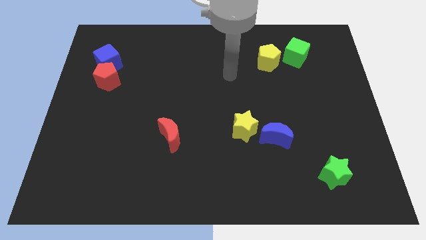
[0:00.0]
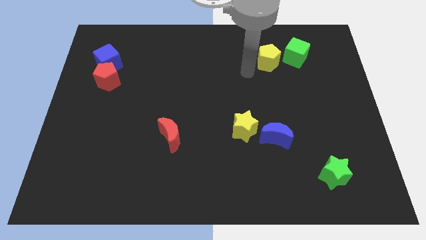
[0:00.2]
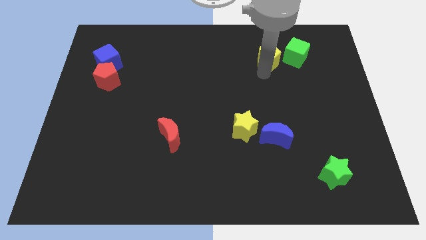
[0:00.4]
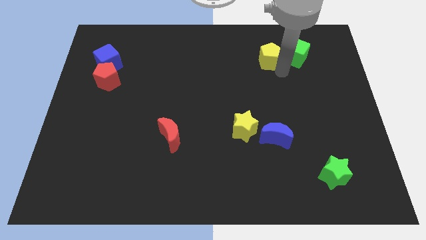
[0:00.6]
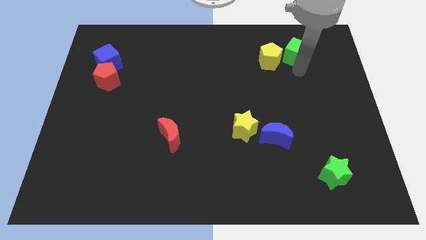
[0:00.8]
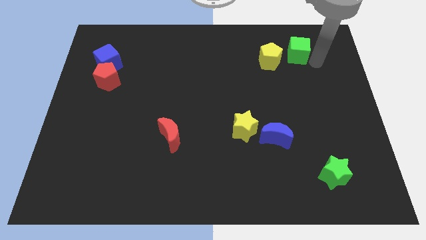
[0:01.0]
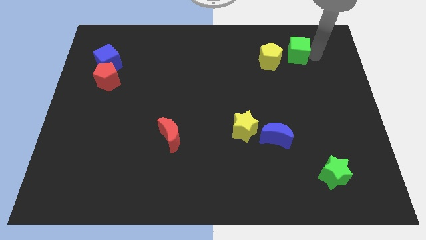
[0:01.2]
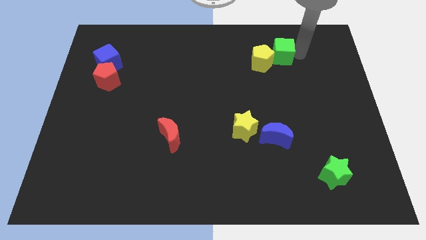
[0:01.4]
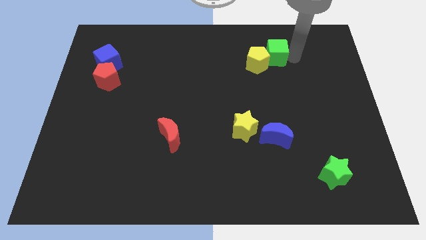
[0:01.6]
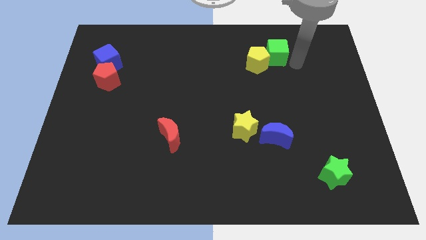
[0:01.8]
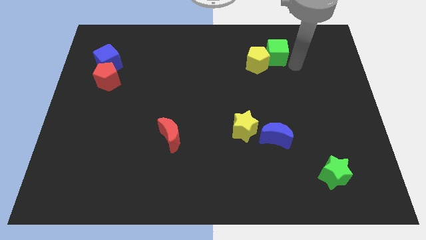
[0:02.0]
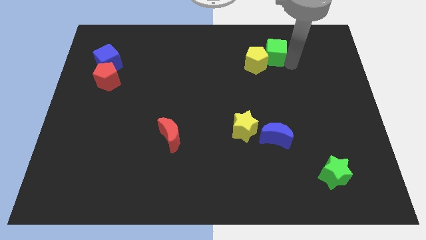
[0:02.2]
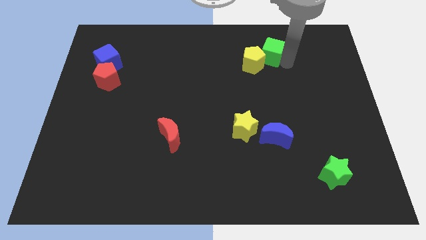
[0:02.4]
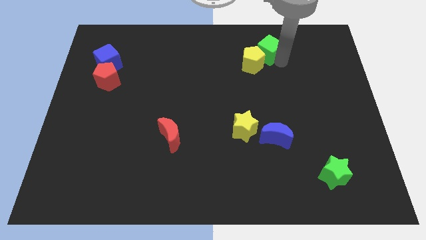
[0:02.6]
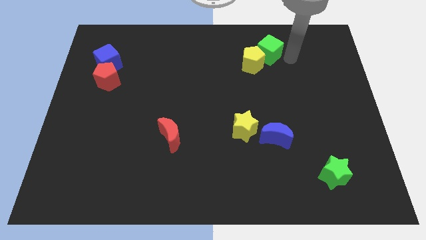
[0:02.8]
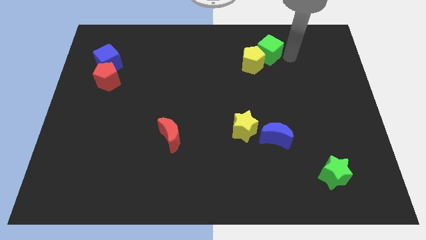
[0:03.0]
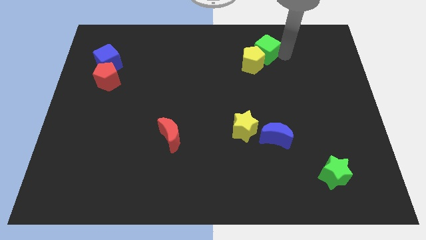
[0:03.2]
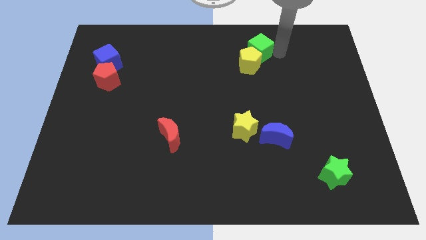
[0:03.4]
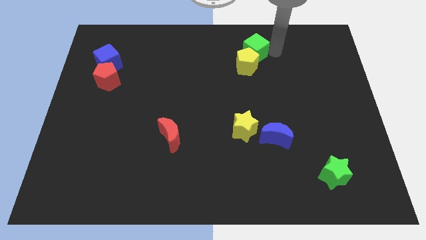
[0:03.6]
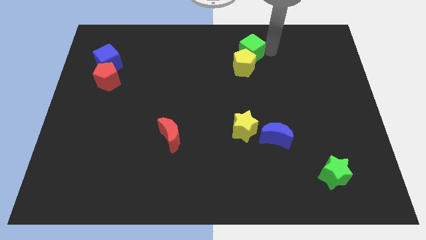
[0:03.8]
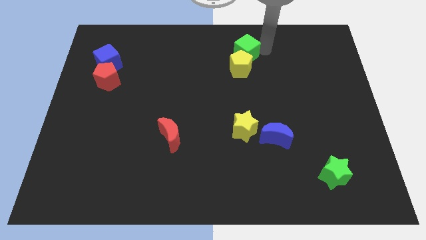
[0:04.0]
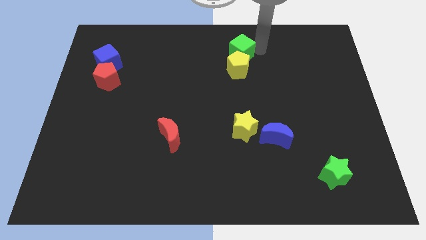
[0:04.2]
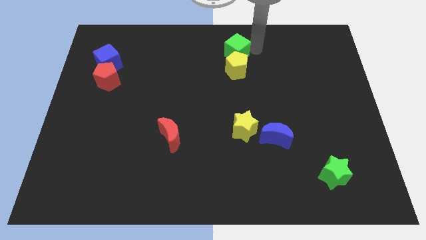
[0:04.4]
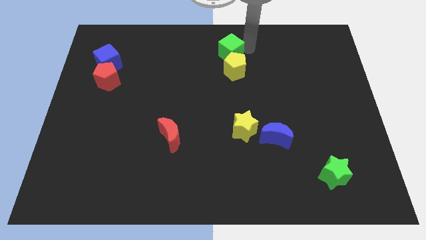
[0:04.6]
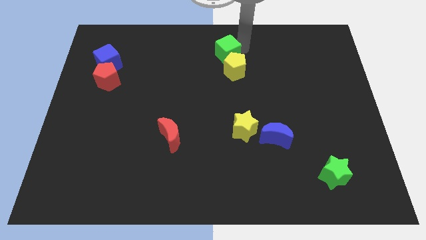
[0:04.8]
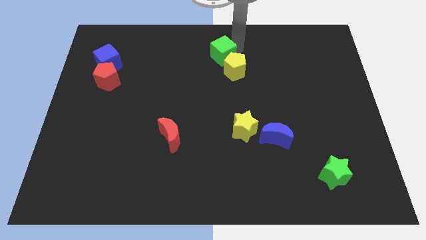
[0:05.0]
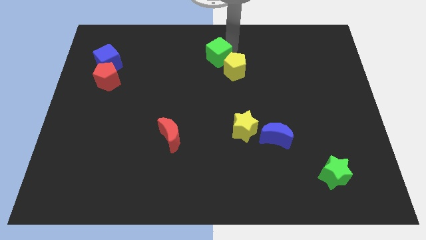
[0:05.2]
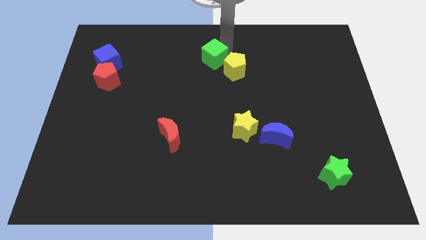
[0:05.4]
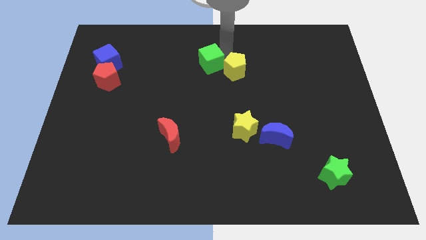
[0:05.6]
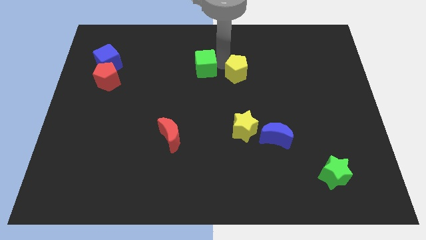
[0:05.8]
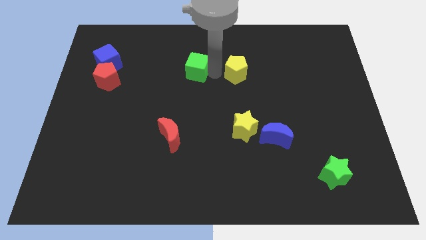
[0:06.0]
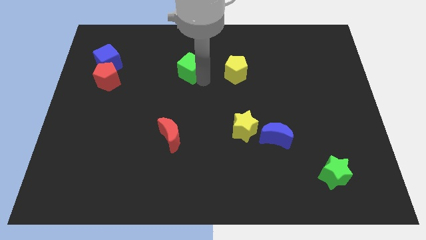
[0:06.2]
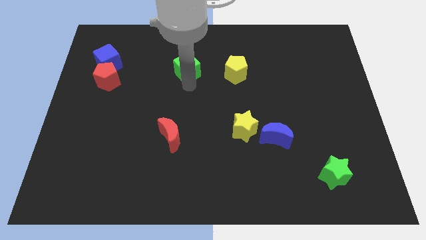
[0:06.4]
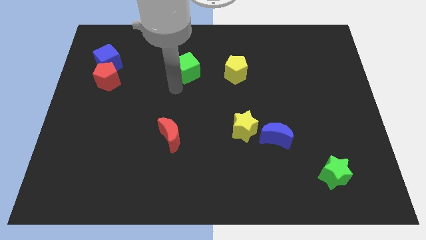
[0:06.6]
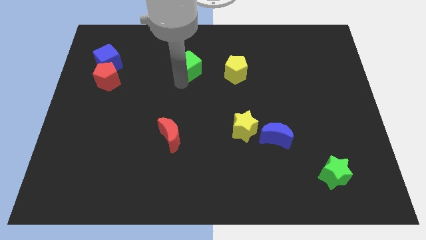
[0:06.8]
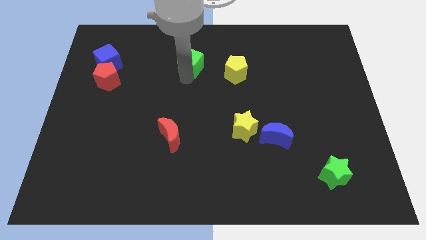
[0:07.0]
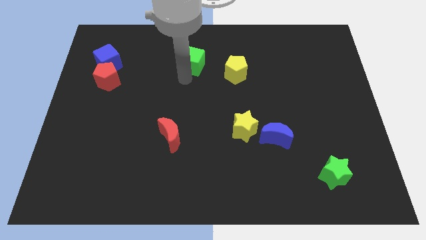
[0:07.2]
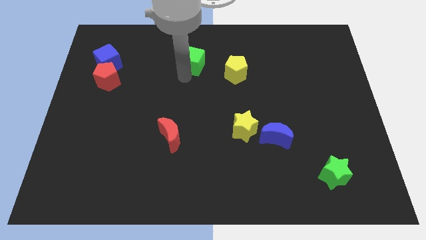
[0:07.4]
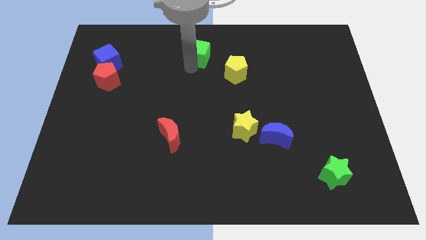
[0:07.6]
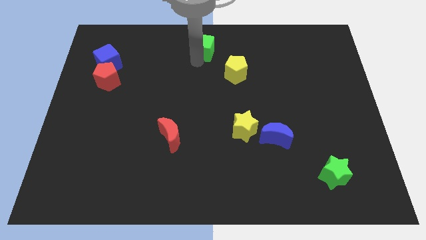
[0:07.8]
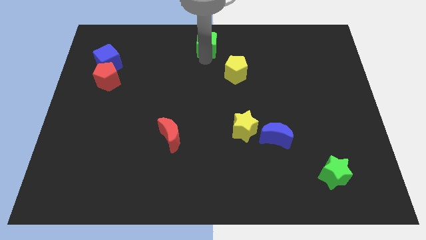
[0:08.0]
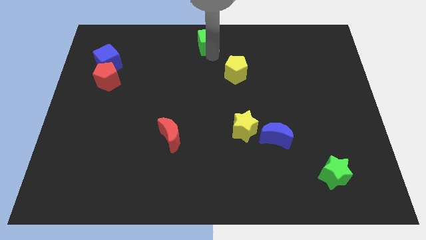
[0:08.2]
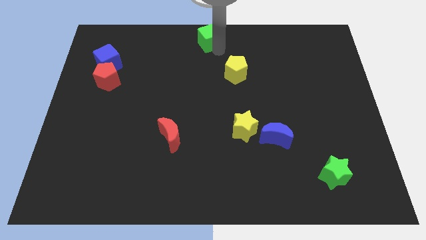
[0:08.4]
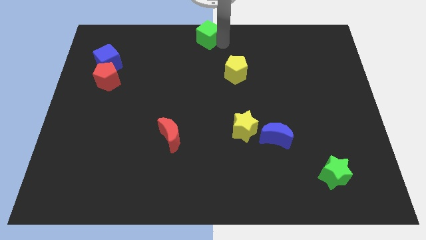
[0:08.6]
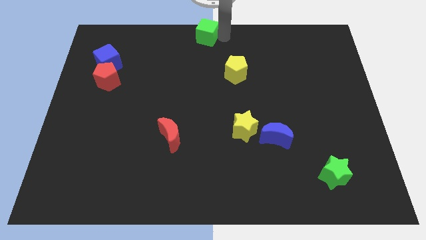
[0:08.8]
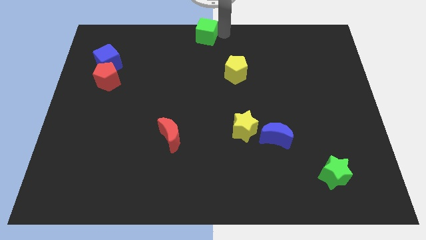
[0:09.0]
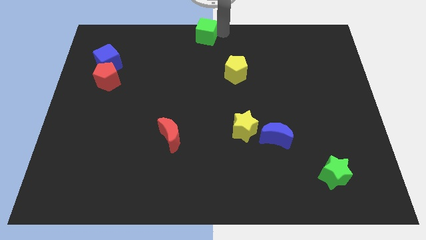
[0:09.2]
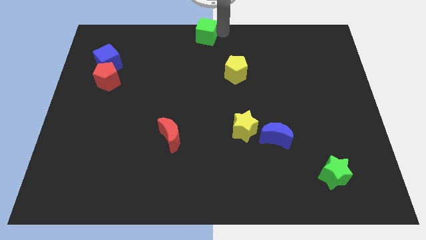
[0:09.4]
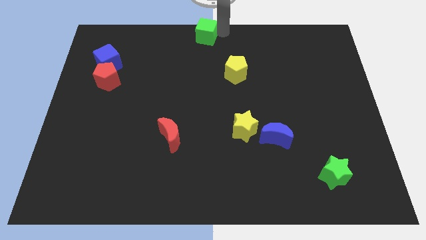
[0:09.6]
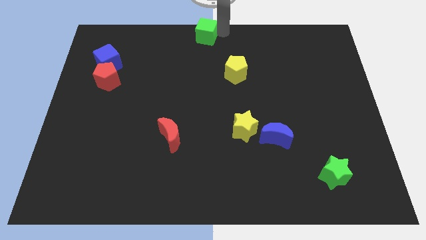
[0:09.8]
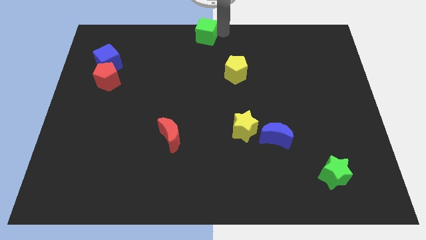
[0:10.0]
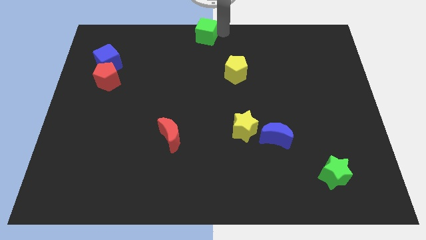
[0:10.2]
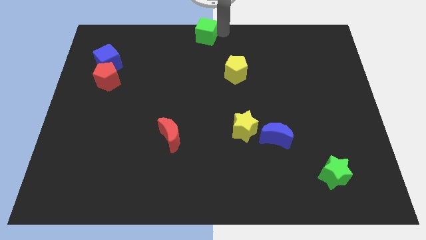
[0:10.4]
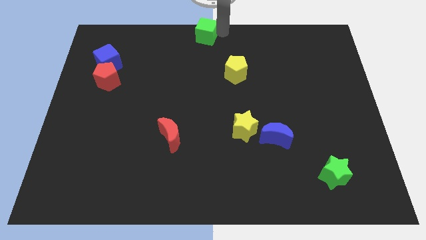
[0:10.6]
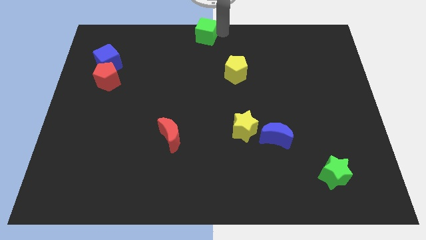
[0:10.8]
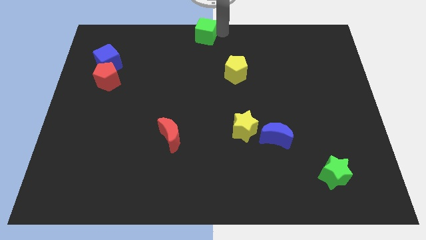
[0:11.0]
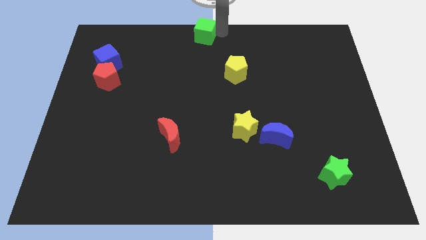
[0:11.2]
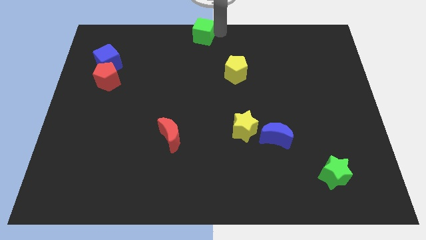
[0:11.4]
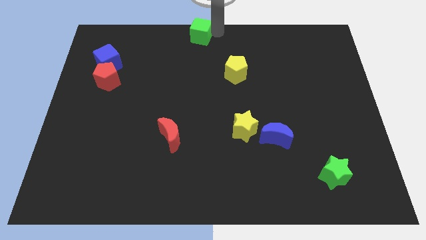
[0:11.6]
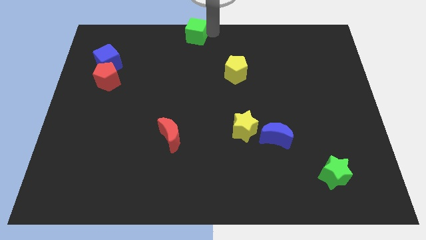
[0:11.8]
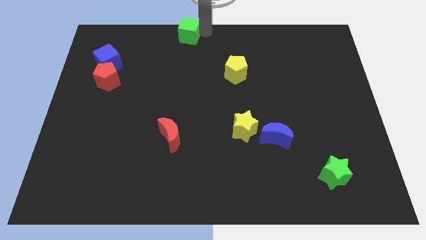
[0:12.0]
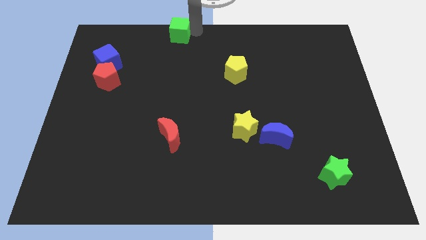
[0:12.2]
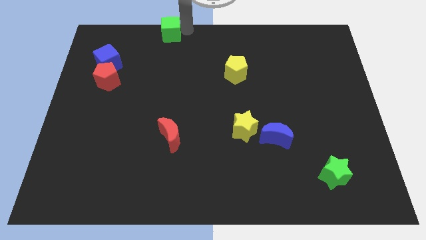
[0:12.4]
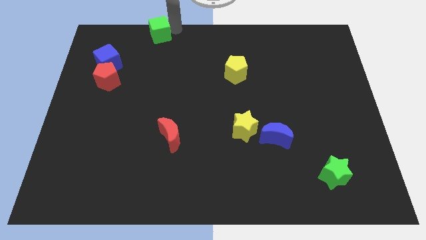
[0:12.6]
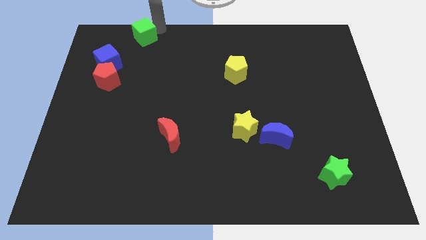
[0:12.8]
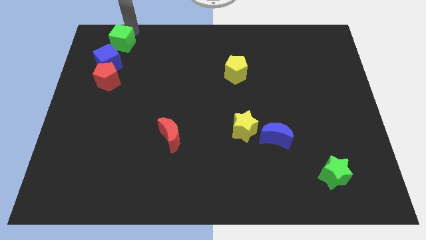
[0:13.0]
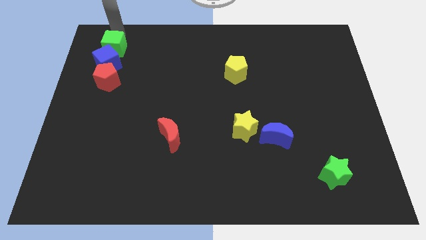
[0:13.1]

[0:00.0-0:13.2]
push the green cube towards the blue cube
